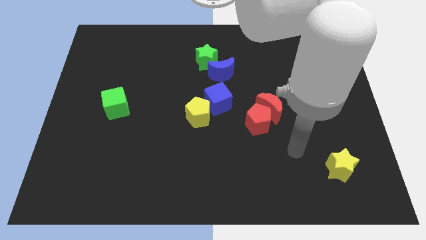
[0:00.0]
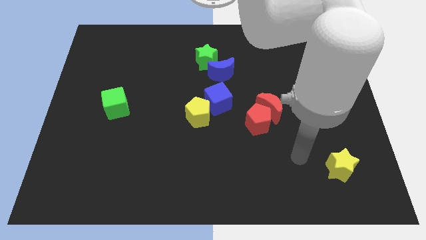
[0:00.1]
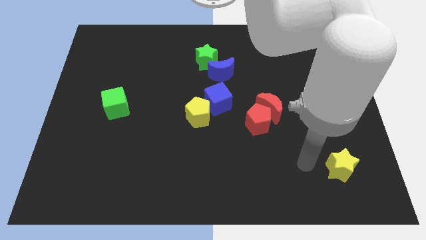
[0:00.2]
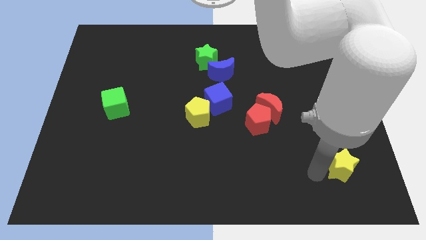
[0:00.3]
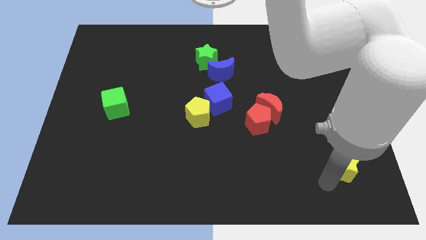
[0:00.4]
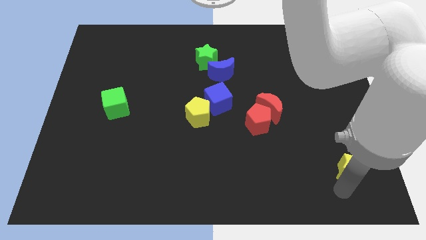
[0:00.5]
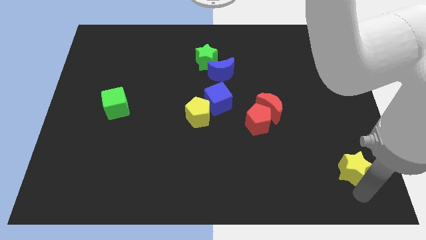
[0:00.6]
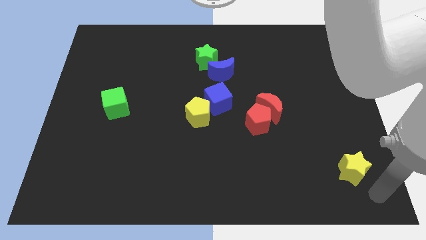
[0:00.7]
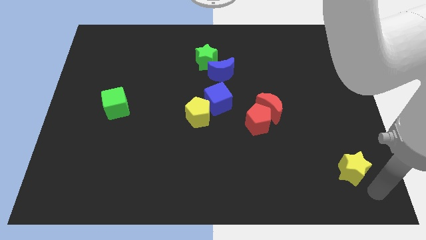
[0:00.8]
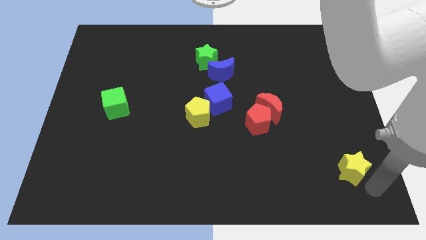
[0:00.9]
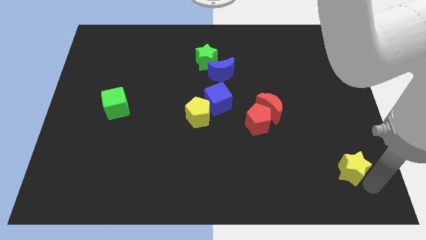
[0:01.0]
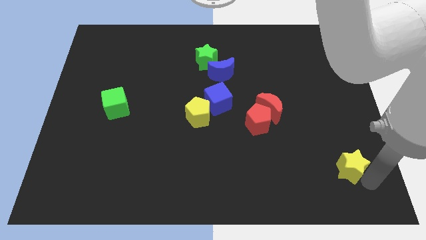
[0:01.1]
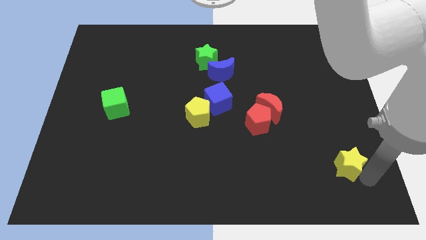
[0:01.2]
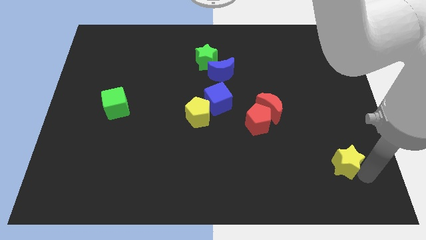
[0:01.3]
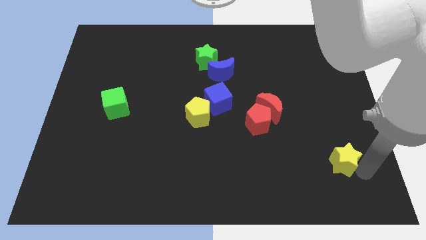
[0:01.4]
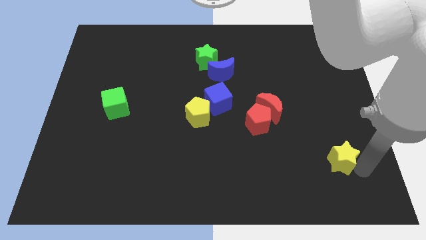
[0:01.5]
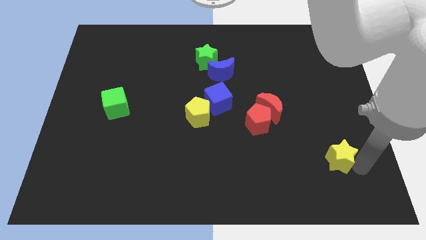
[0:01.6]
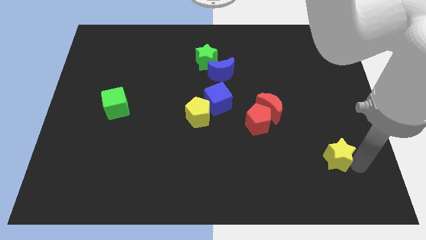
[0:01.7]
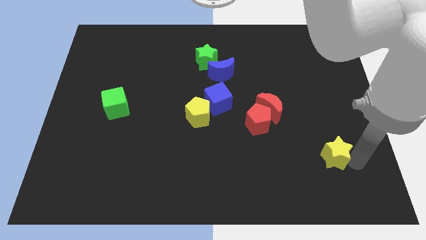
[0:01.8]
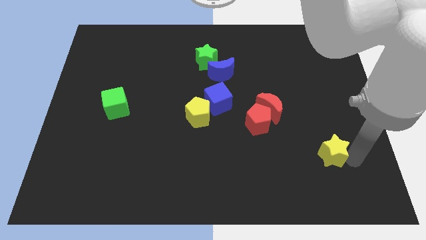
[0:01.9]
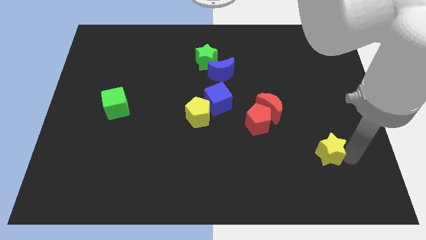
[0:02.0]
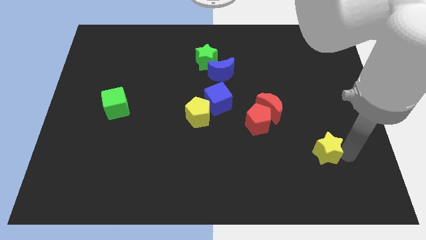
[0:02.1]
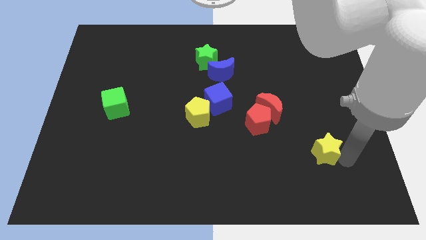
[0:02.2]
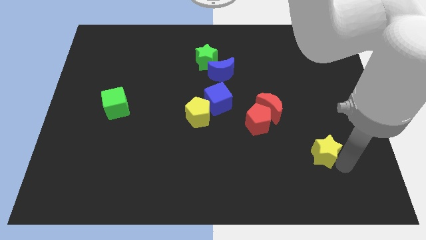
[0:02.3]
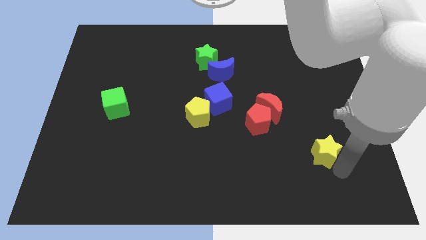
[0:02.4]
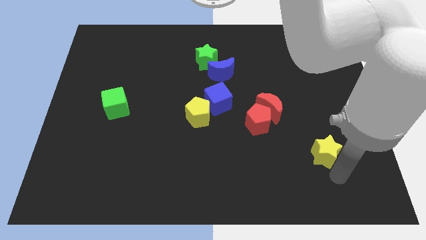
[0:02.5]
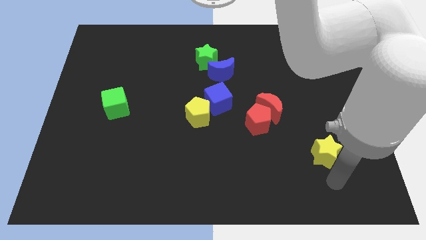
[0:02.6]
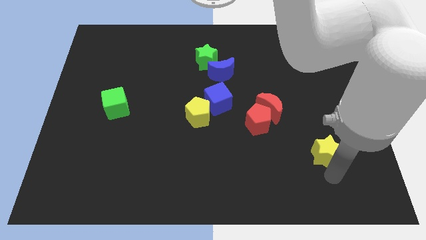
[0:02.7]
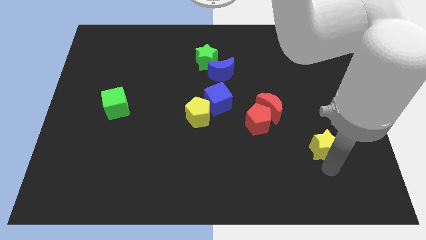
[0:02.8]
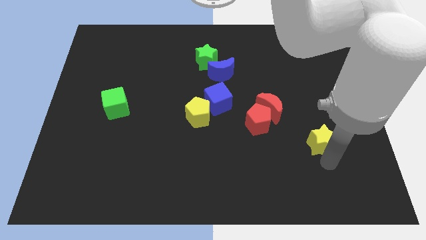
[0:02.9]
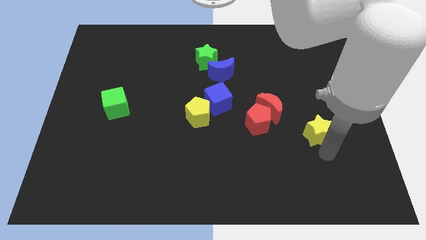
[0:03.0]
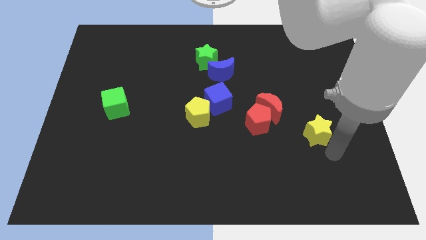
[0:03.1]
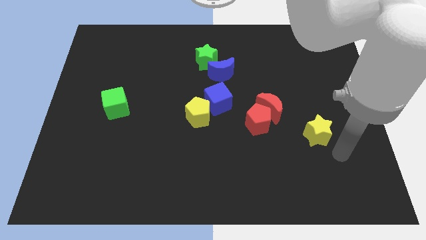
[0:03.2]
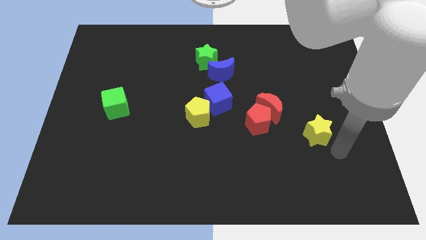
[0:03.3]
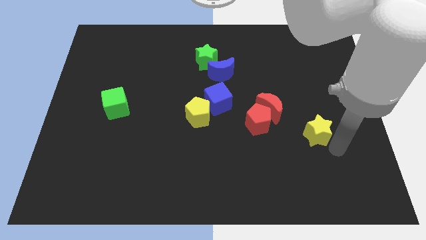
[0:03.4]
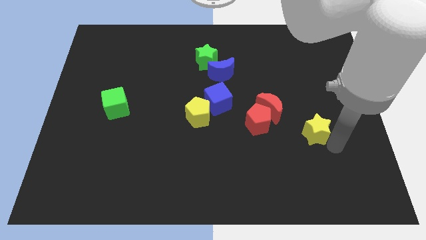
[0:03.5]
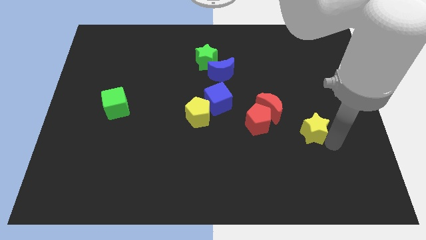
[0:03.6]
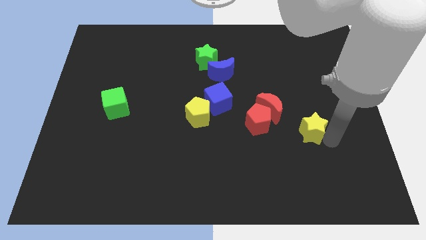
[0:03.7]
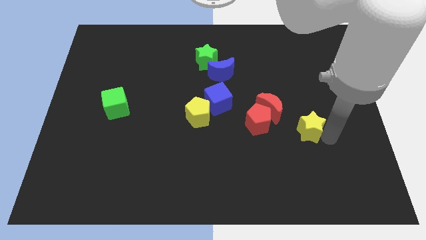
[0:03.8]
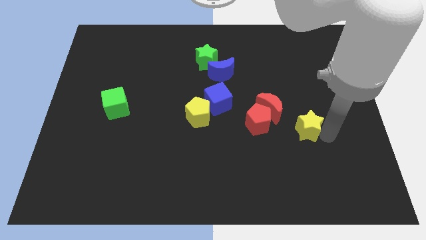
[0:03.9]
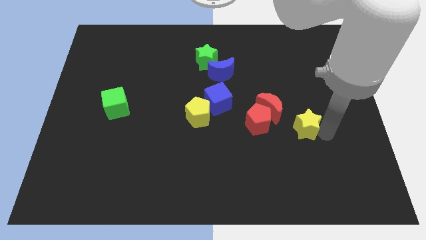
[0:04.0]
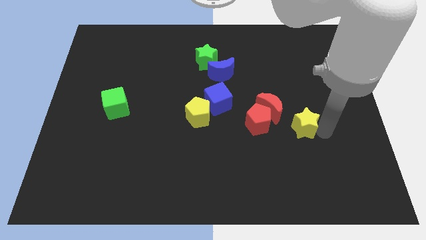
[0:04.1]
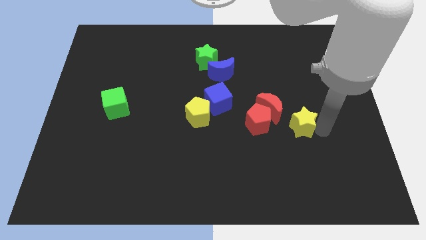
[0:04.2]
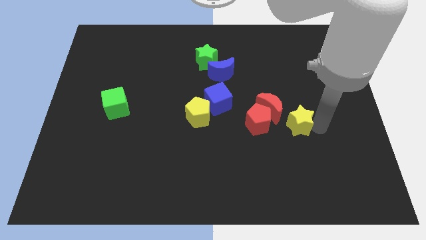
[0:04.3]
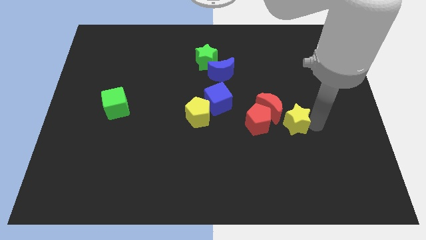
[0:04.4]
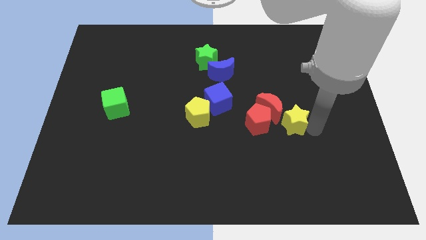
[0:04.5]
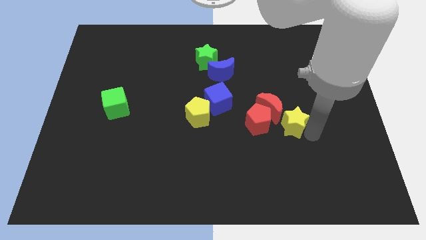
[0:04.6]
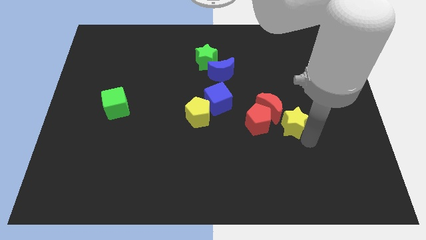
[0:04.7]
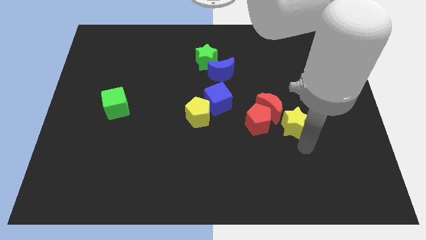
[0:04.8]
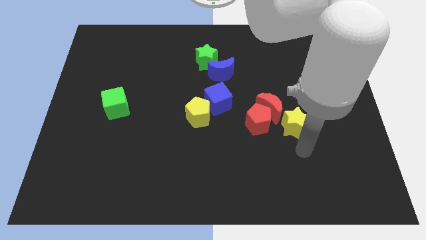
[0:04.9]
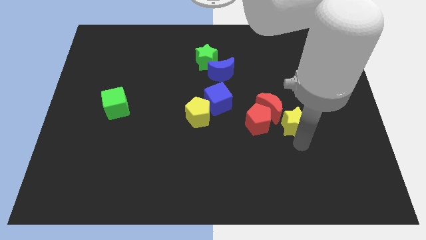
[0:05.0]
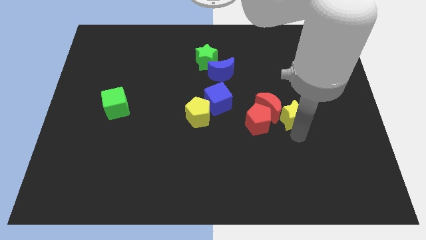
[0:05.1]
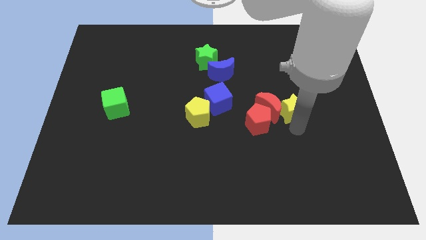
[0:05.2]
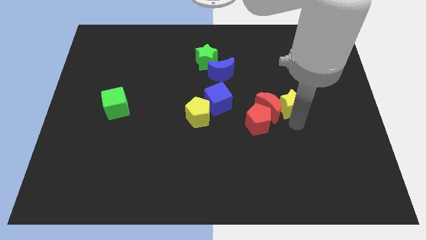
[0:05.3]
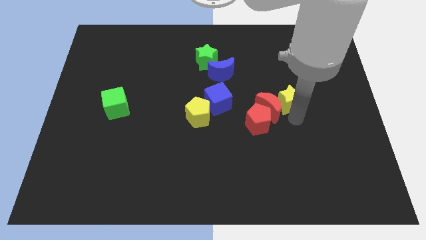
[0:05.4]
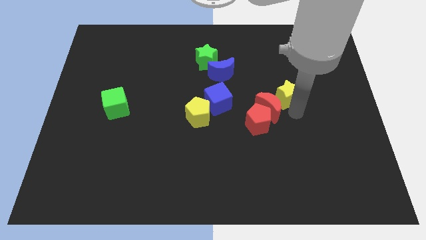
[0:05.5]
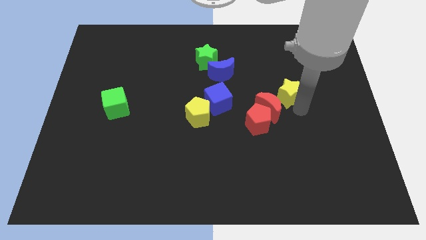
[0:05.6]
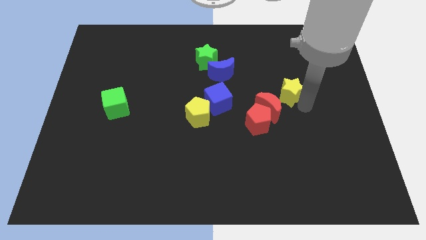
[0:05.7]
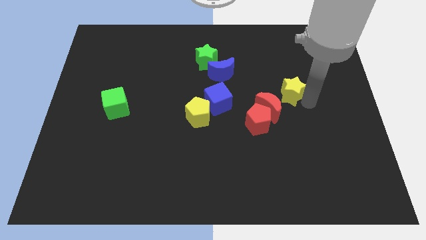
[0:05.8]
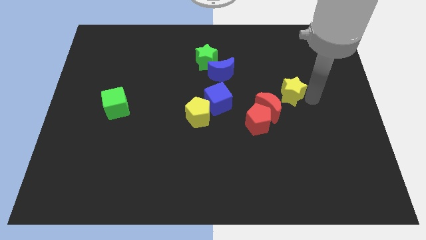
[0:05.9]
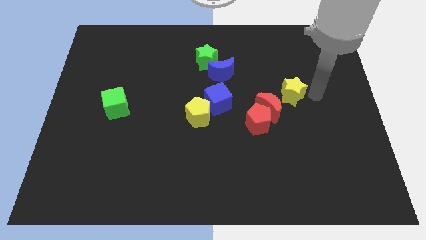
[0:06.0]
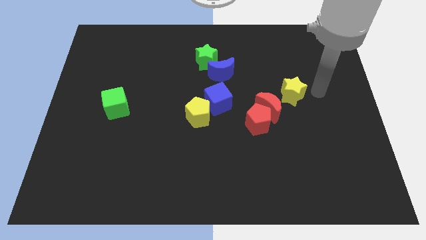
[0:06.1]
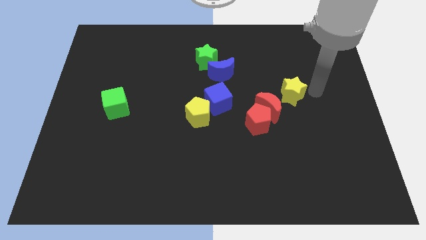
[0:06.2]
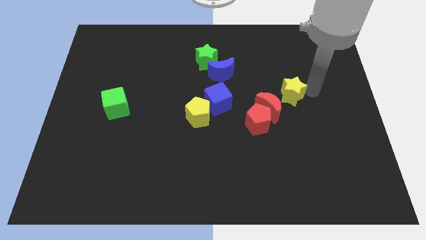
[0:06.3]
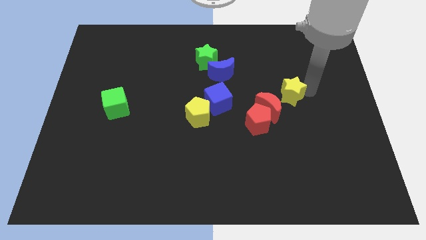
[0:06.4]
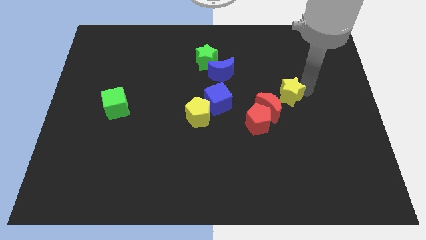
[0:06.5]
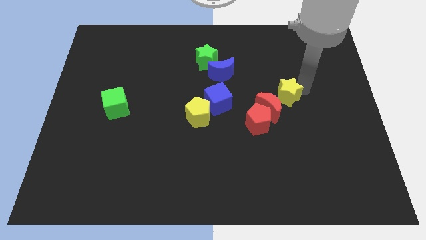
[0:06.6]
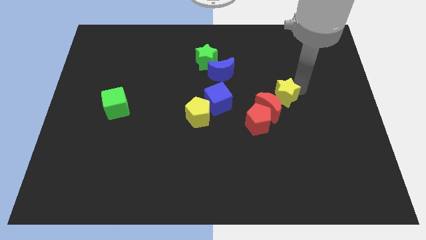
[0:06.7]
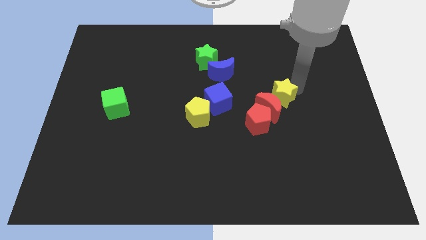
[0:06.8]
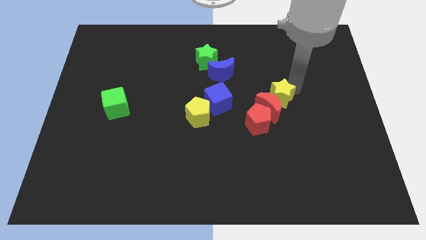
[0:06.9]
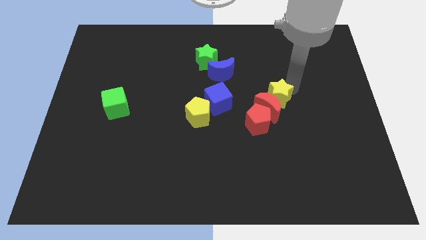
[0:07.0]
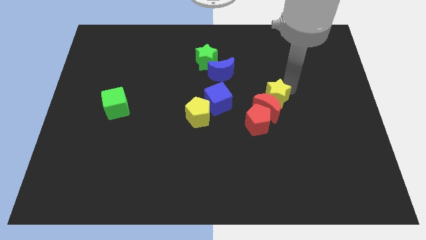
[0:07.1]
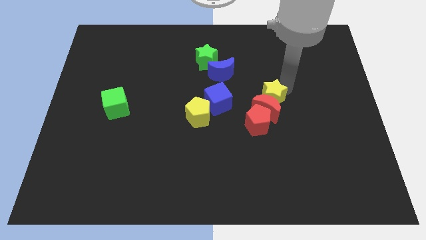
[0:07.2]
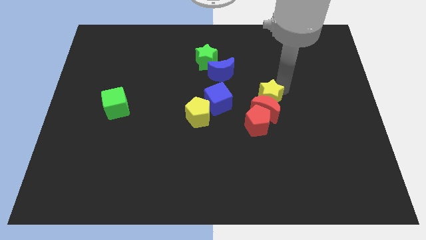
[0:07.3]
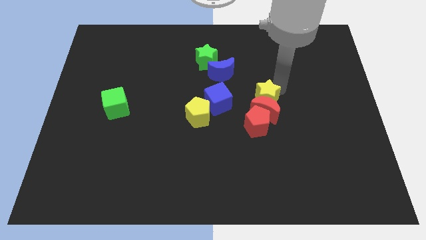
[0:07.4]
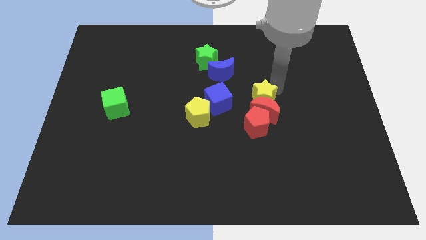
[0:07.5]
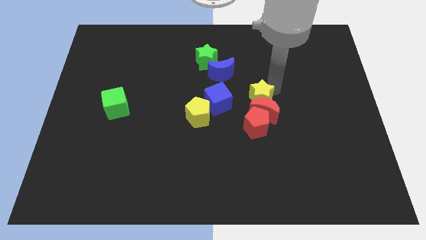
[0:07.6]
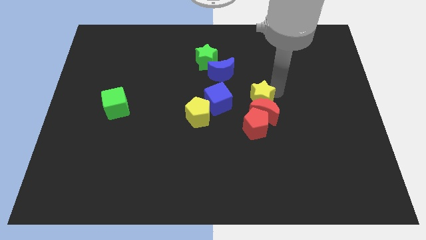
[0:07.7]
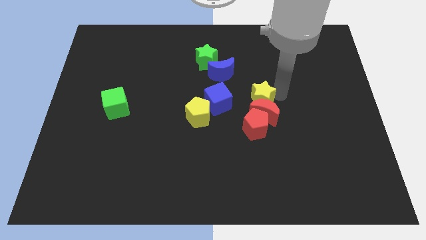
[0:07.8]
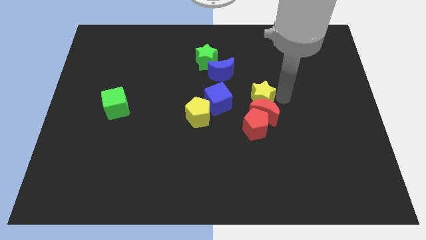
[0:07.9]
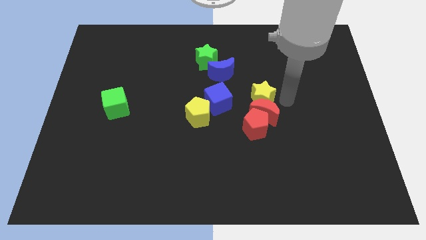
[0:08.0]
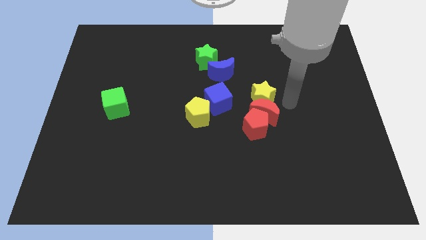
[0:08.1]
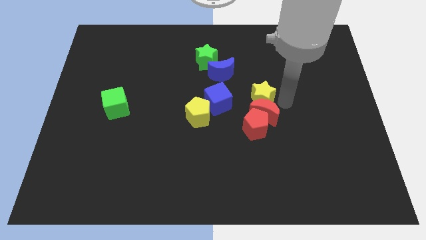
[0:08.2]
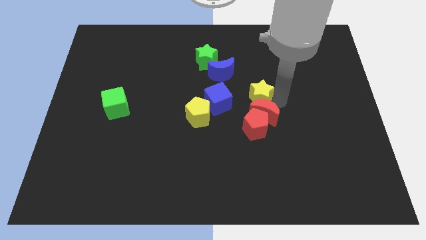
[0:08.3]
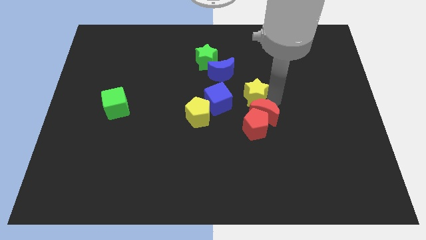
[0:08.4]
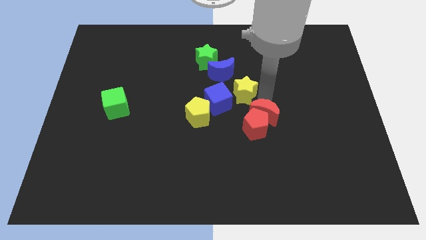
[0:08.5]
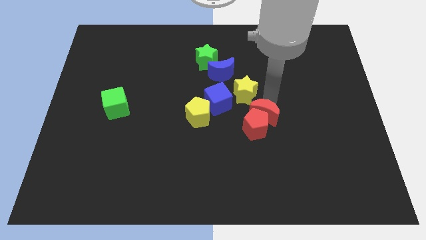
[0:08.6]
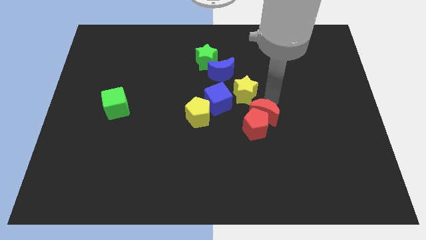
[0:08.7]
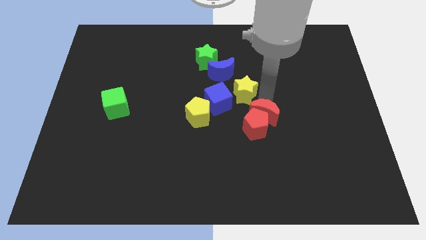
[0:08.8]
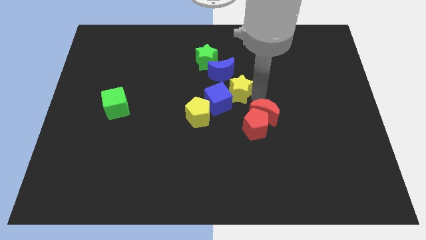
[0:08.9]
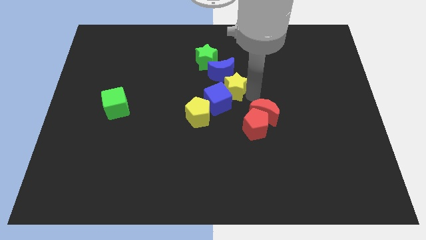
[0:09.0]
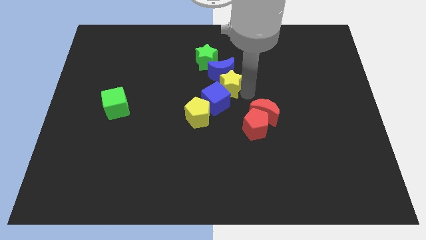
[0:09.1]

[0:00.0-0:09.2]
put the yellow star to the bottom left of the blue moon
